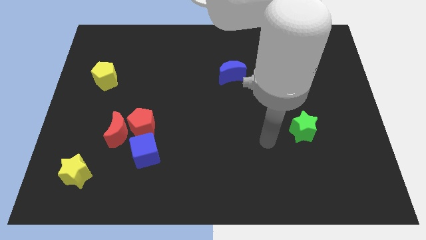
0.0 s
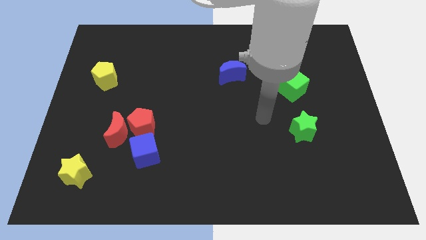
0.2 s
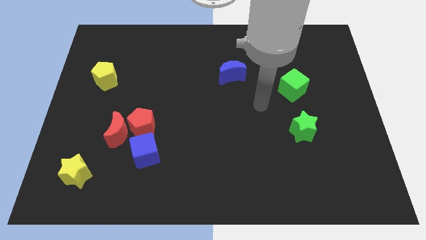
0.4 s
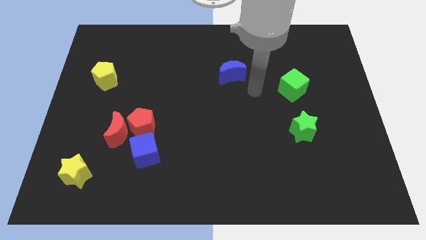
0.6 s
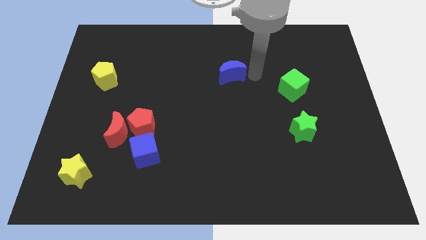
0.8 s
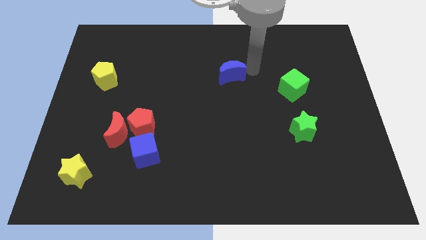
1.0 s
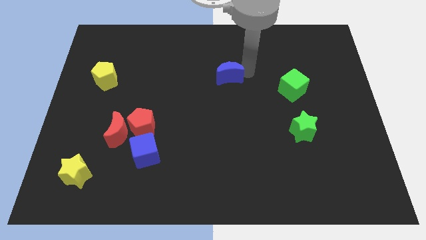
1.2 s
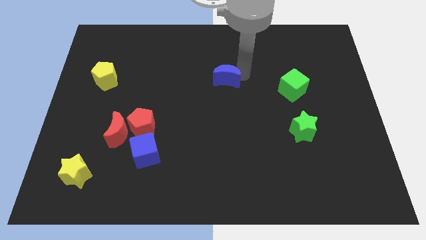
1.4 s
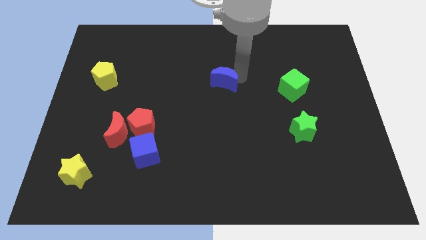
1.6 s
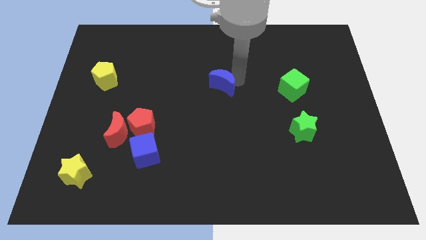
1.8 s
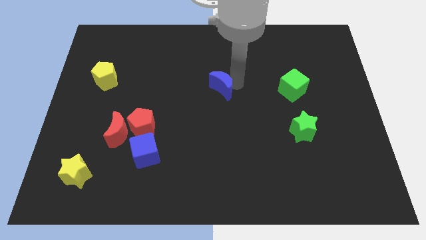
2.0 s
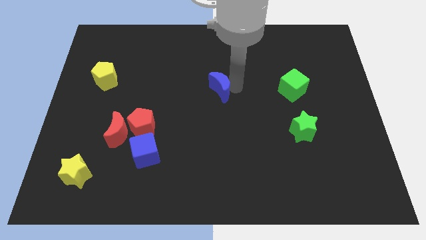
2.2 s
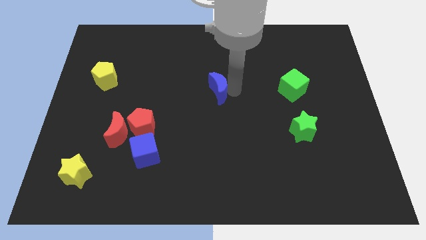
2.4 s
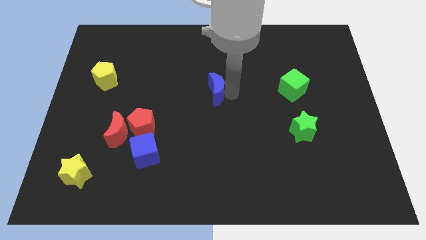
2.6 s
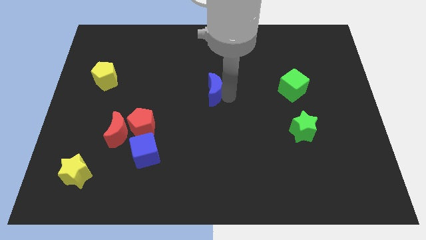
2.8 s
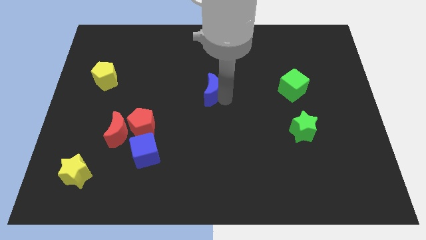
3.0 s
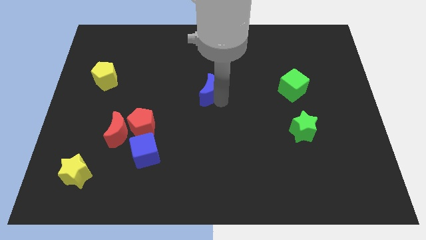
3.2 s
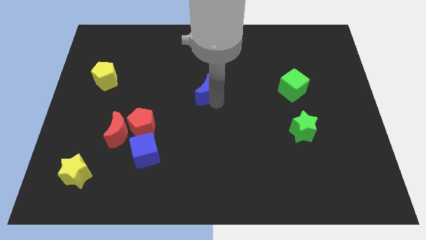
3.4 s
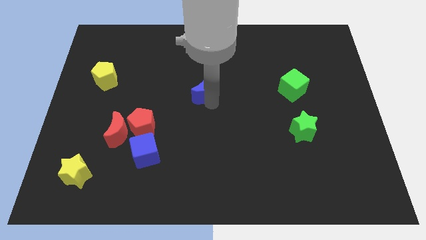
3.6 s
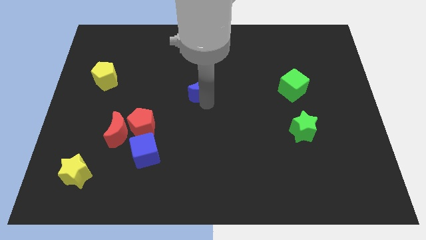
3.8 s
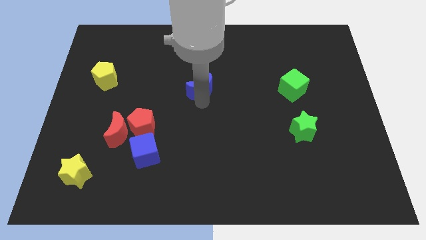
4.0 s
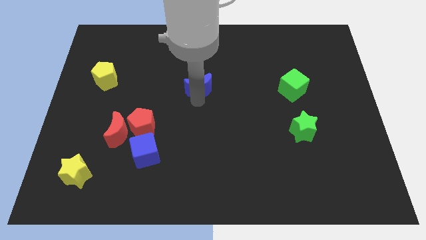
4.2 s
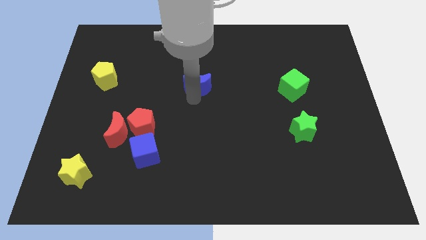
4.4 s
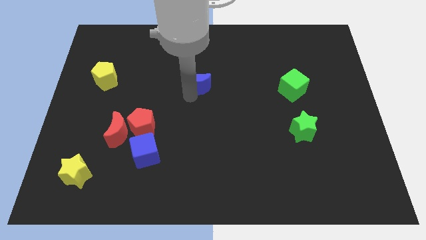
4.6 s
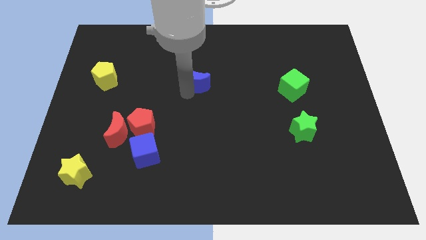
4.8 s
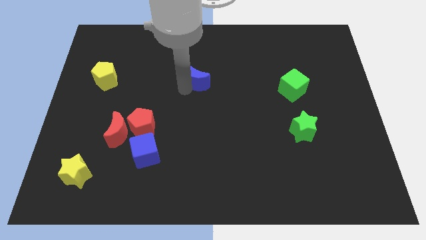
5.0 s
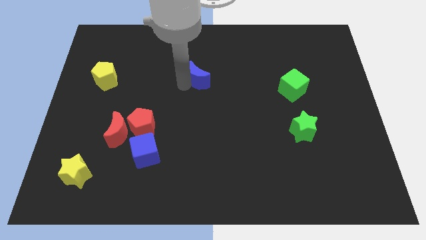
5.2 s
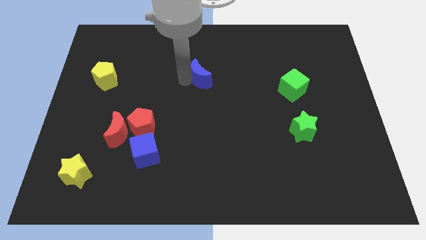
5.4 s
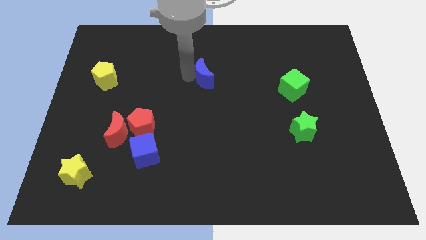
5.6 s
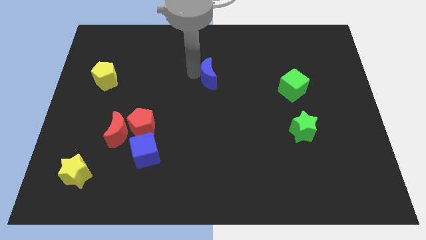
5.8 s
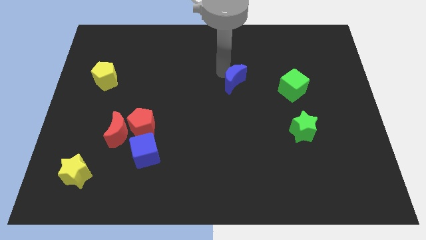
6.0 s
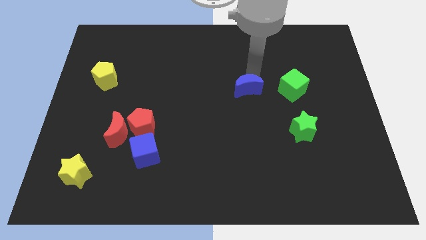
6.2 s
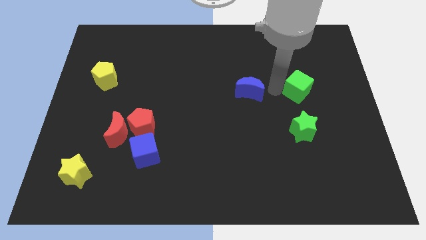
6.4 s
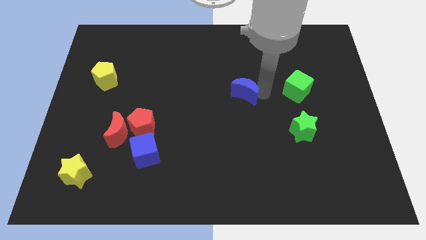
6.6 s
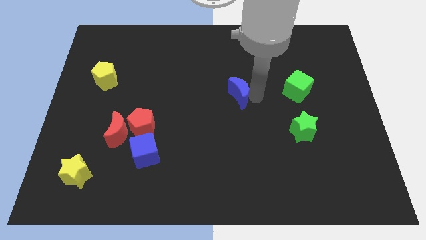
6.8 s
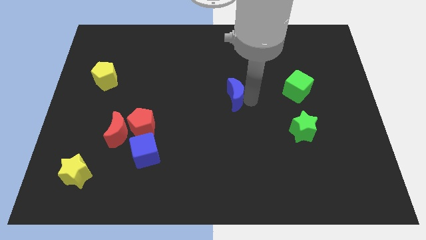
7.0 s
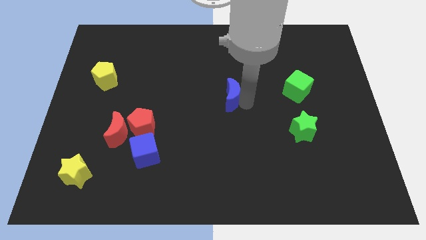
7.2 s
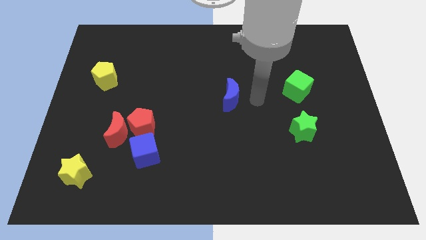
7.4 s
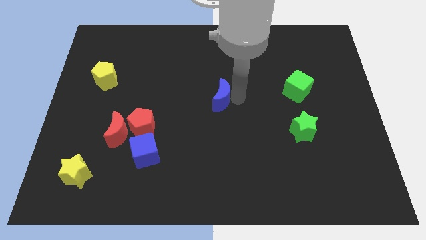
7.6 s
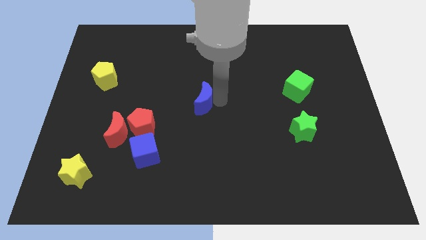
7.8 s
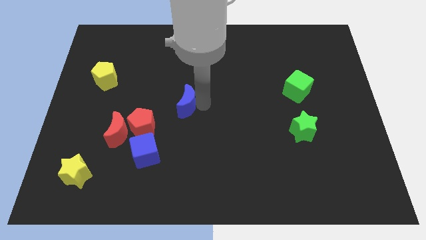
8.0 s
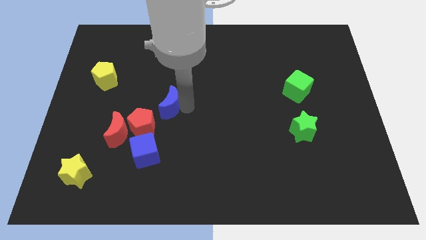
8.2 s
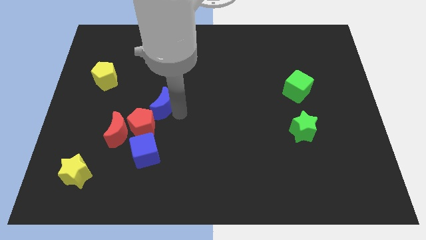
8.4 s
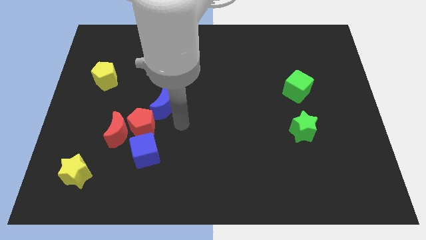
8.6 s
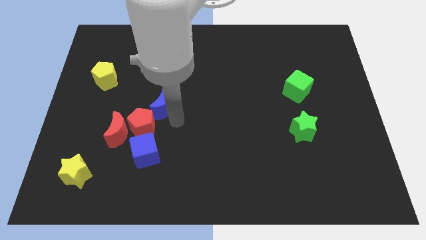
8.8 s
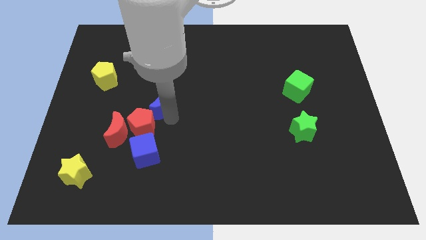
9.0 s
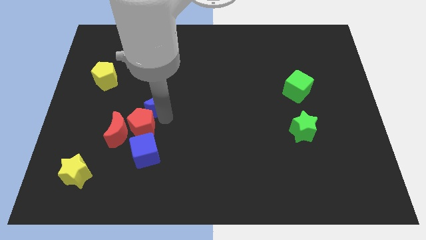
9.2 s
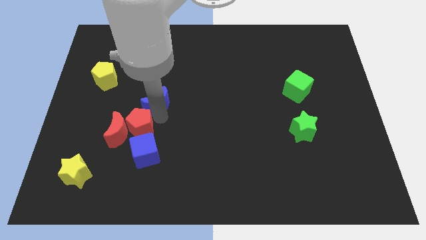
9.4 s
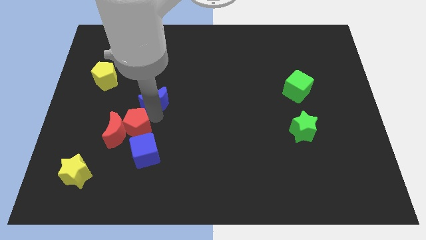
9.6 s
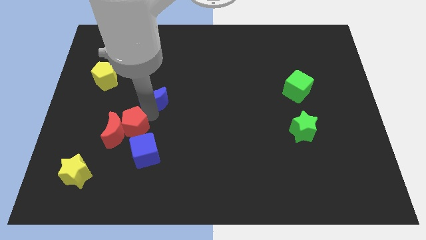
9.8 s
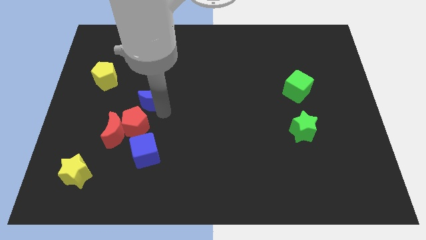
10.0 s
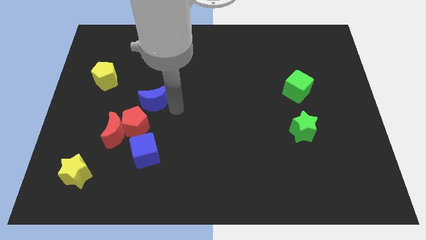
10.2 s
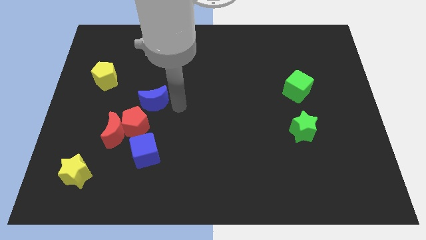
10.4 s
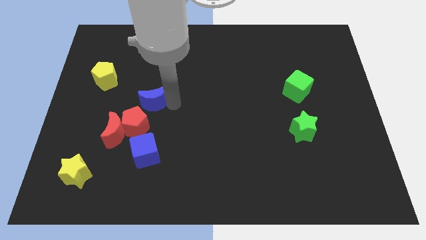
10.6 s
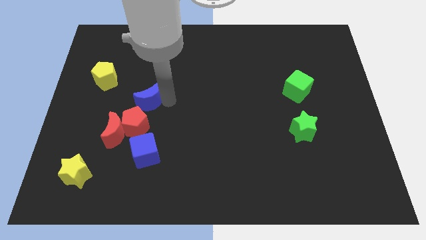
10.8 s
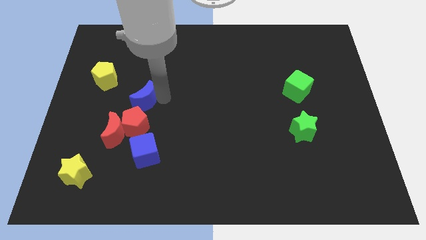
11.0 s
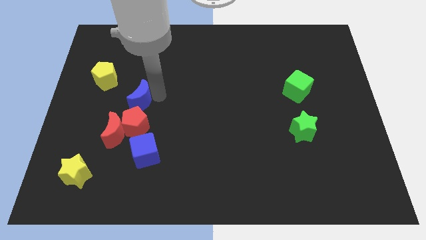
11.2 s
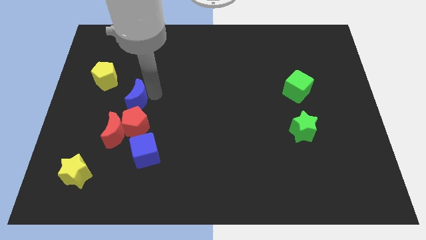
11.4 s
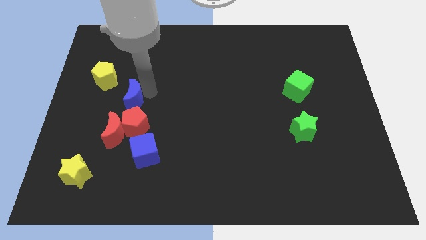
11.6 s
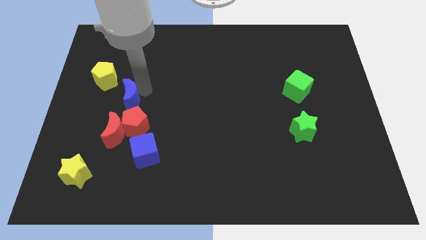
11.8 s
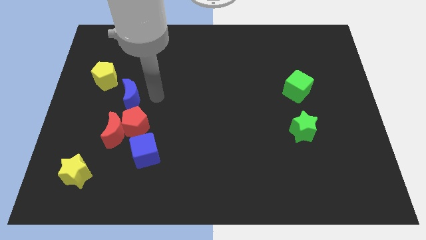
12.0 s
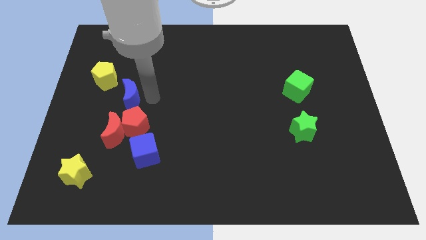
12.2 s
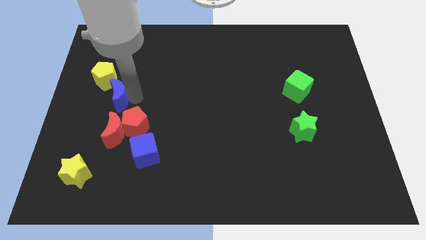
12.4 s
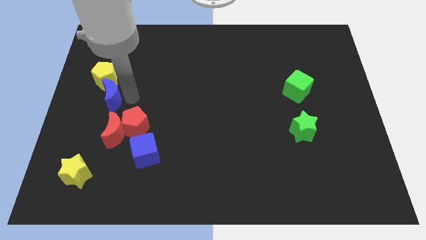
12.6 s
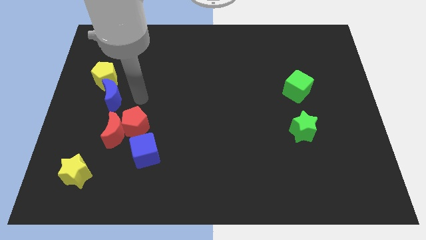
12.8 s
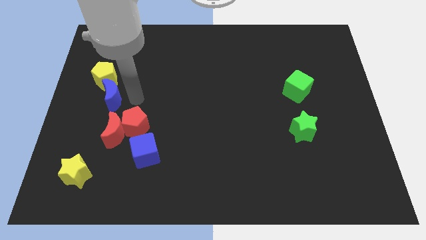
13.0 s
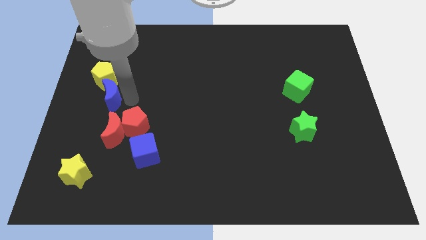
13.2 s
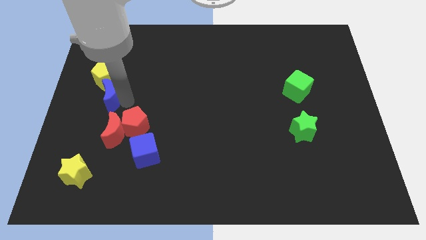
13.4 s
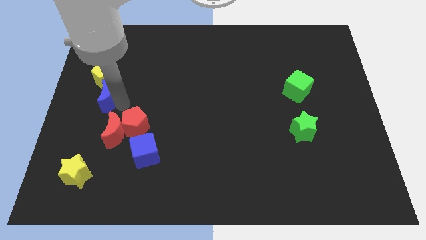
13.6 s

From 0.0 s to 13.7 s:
put the blue moon to the center left

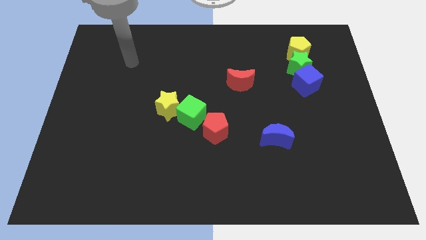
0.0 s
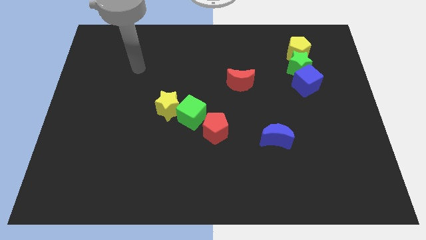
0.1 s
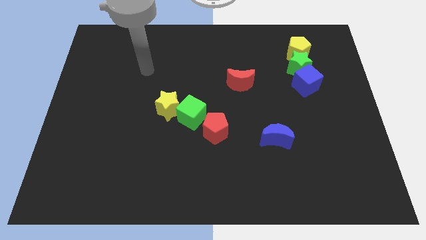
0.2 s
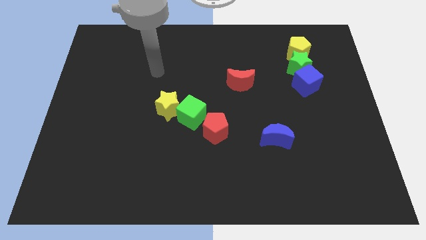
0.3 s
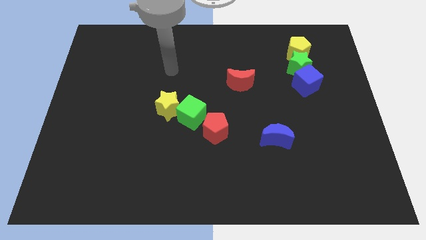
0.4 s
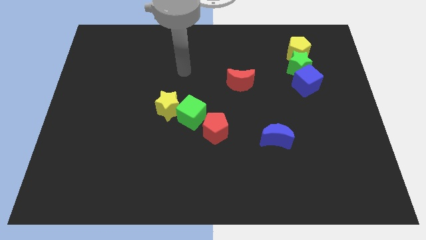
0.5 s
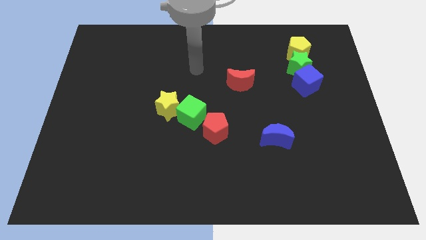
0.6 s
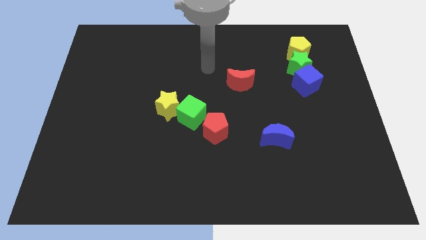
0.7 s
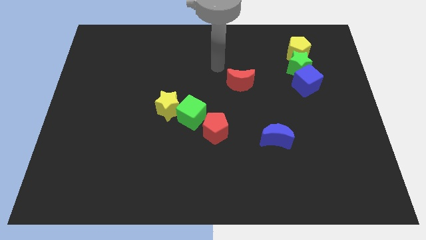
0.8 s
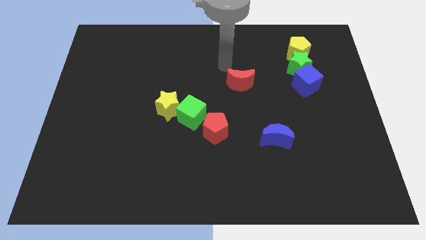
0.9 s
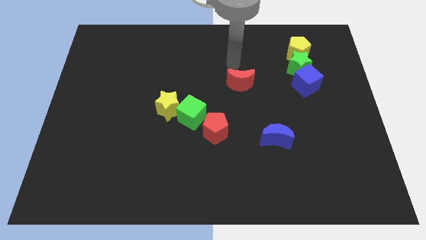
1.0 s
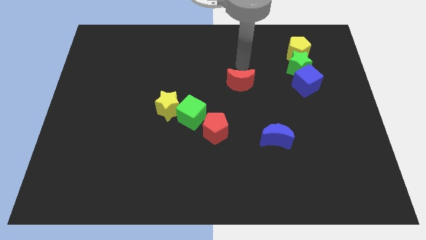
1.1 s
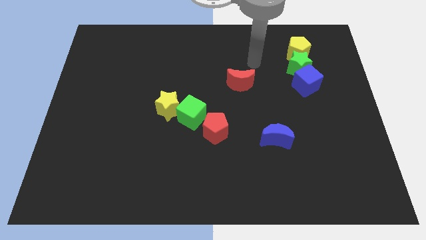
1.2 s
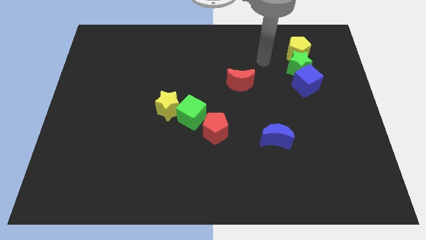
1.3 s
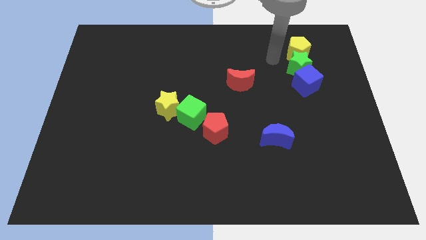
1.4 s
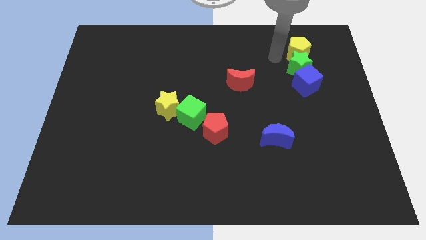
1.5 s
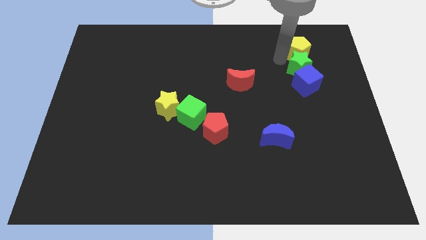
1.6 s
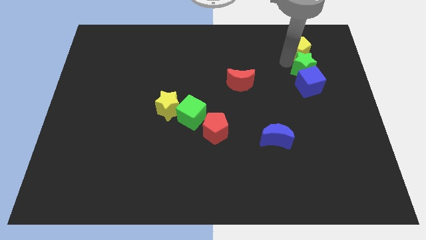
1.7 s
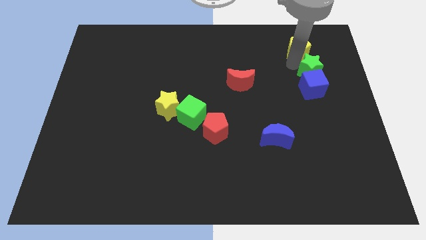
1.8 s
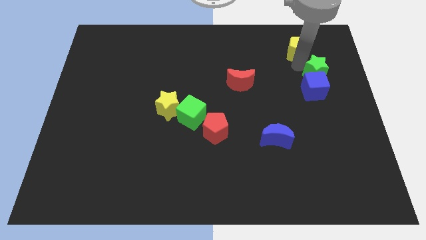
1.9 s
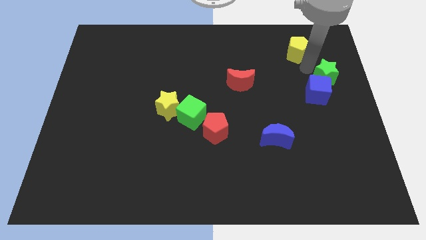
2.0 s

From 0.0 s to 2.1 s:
move the green star to the right side of the board
